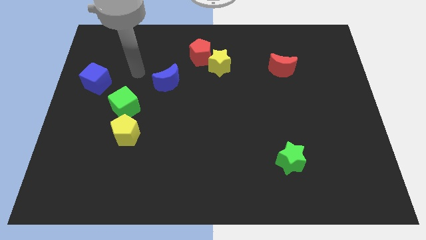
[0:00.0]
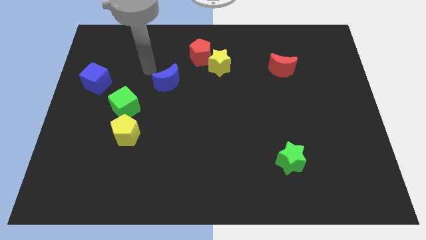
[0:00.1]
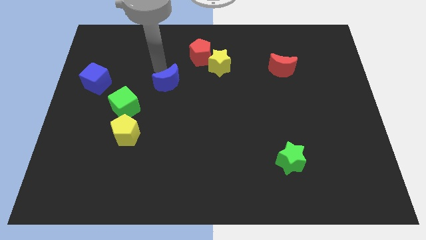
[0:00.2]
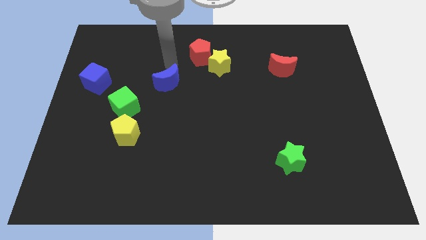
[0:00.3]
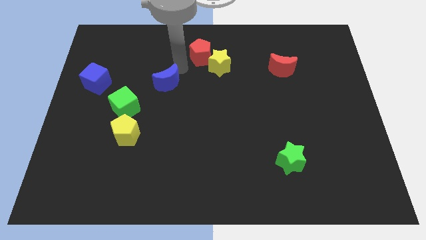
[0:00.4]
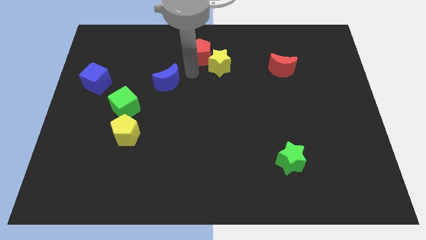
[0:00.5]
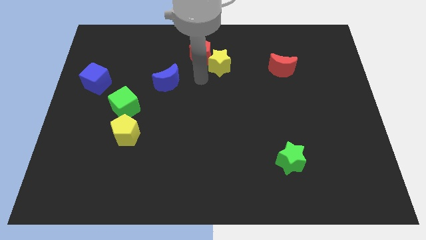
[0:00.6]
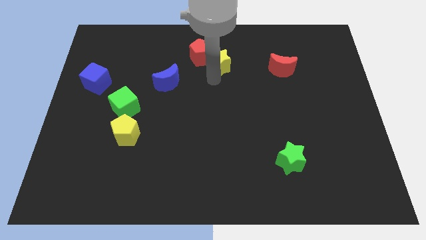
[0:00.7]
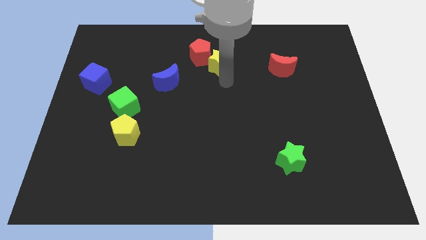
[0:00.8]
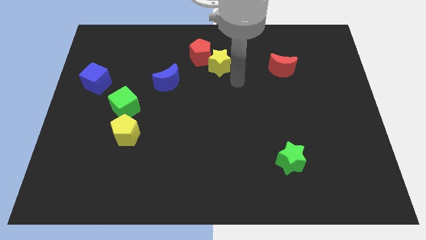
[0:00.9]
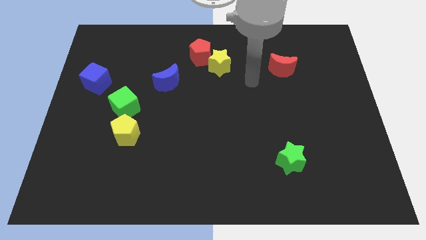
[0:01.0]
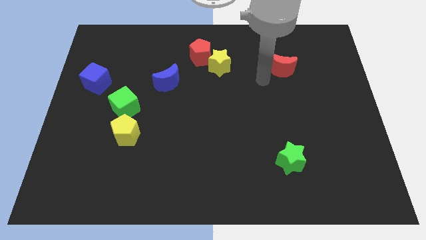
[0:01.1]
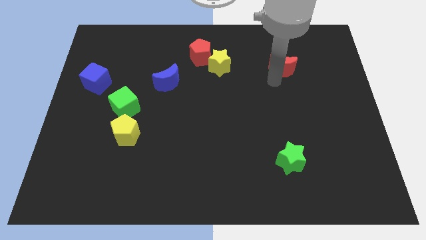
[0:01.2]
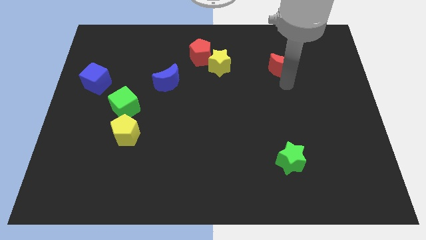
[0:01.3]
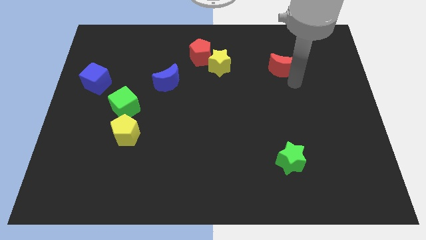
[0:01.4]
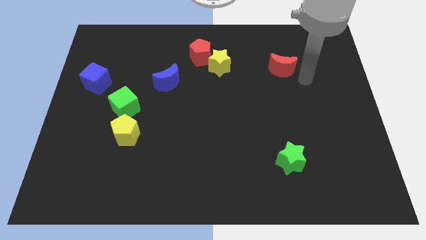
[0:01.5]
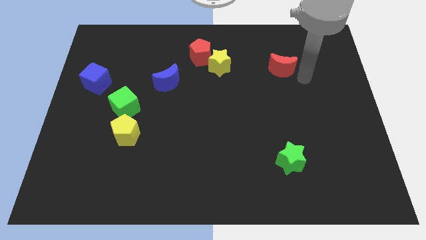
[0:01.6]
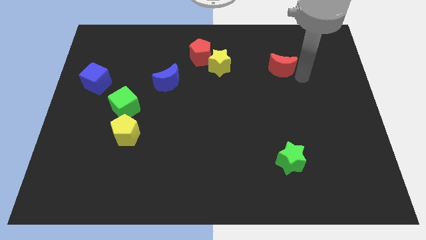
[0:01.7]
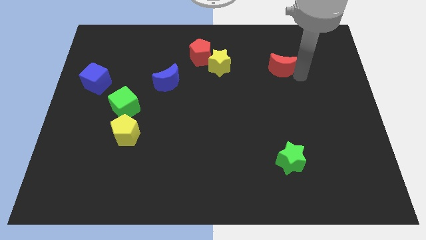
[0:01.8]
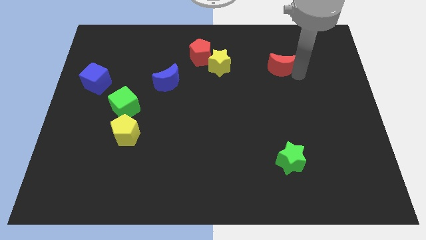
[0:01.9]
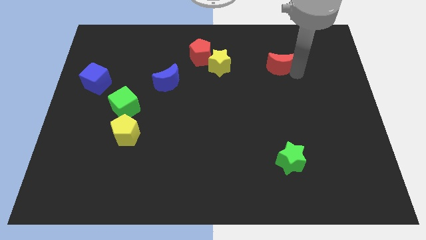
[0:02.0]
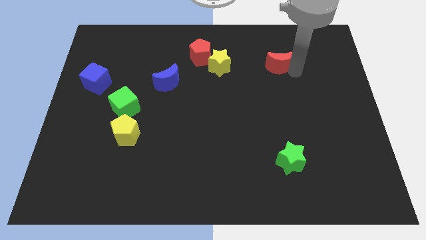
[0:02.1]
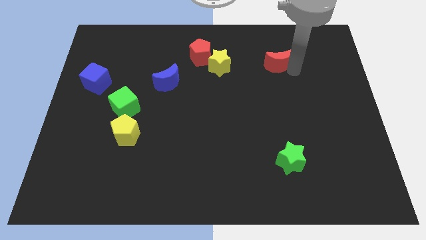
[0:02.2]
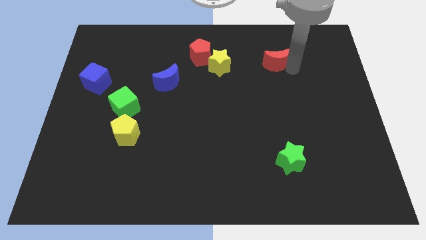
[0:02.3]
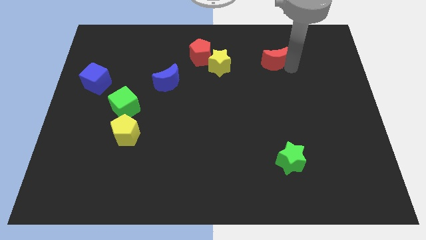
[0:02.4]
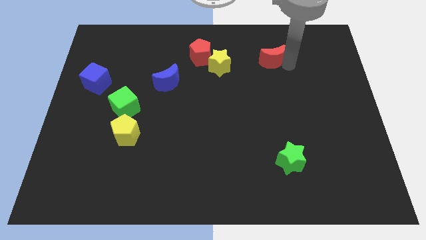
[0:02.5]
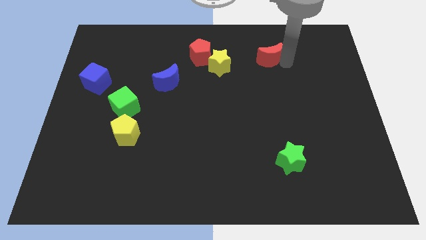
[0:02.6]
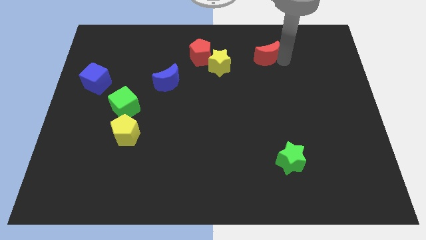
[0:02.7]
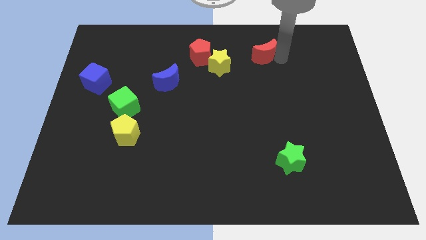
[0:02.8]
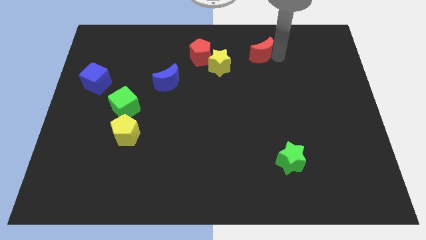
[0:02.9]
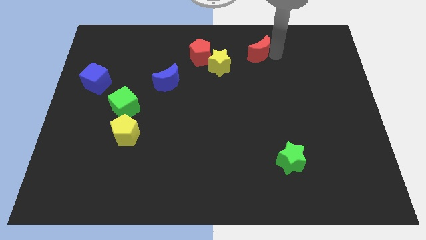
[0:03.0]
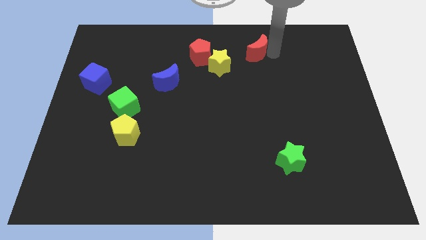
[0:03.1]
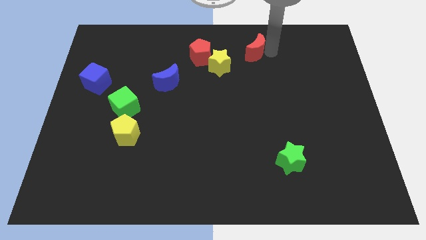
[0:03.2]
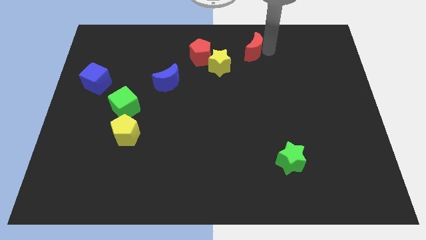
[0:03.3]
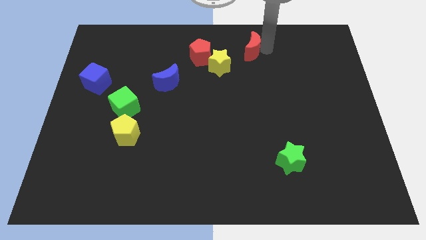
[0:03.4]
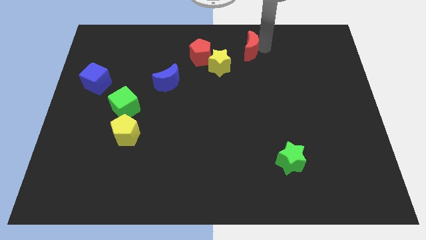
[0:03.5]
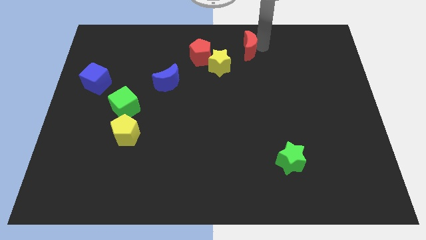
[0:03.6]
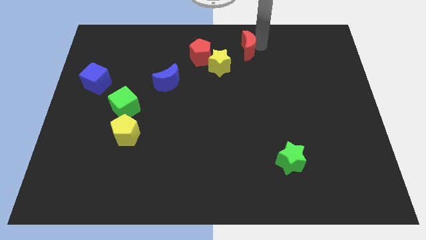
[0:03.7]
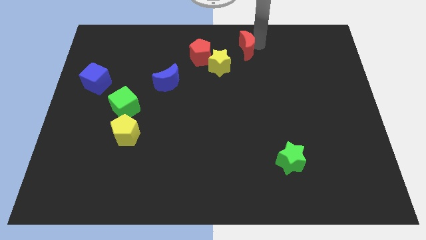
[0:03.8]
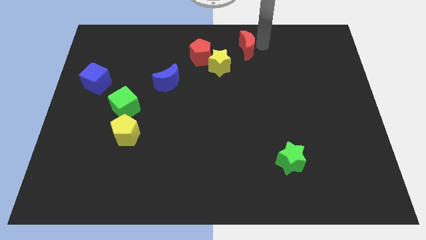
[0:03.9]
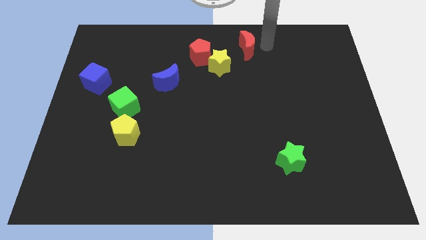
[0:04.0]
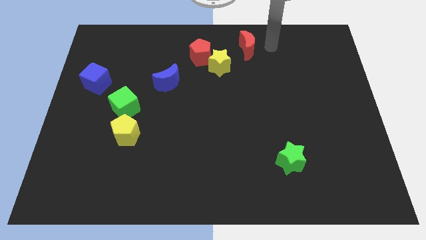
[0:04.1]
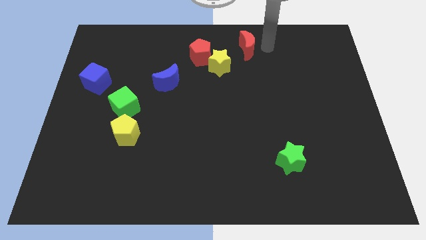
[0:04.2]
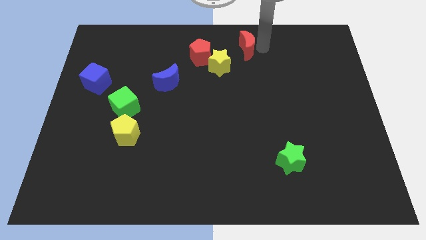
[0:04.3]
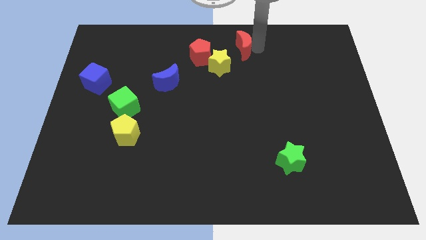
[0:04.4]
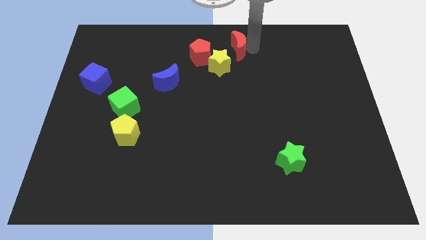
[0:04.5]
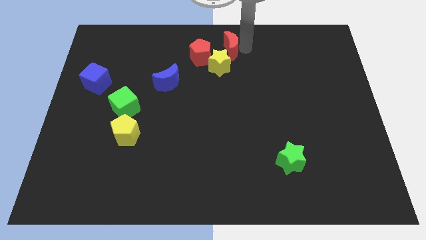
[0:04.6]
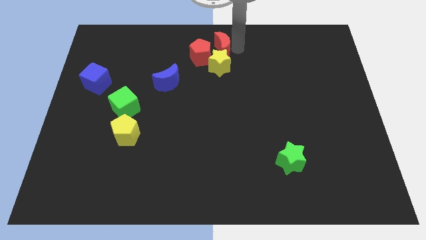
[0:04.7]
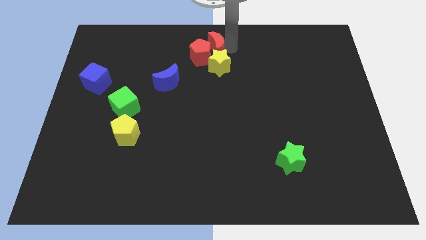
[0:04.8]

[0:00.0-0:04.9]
push the red moon to the red pentagon

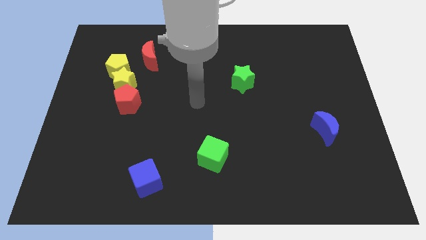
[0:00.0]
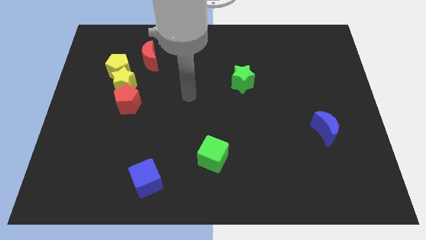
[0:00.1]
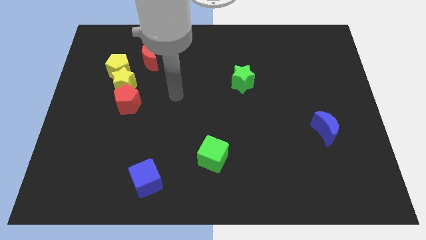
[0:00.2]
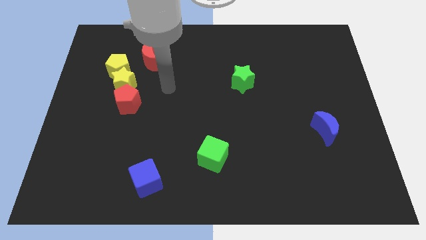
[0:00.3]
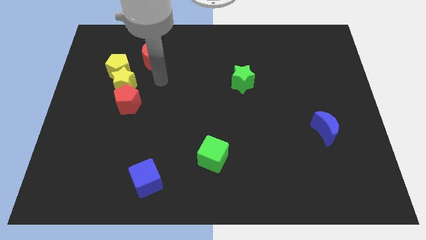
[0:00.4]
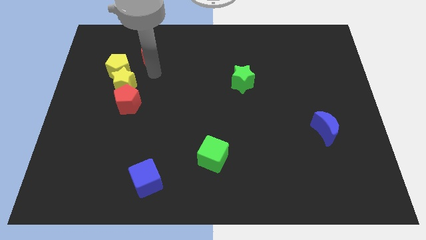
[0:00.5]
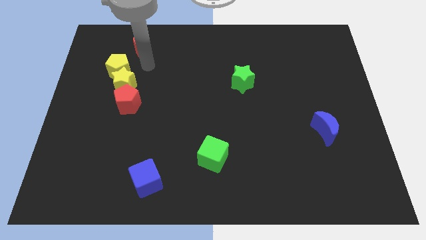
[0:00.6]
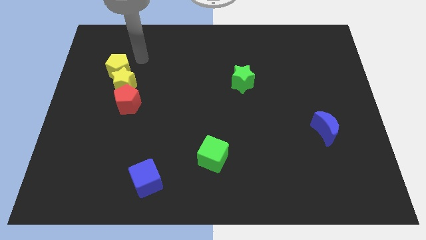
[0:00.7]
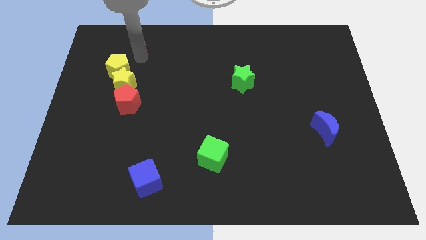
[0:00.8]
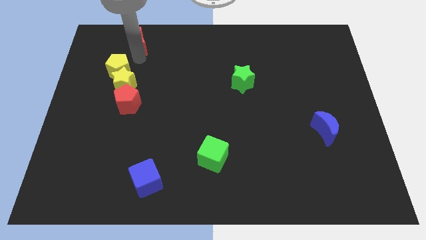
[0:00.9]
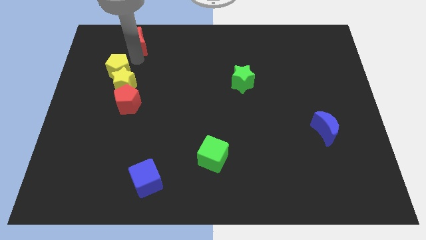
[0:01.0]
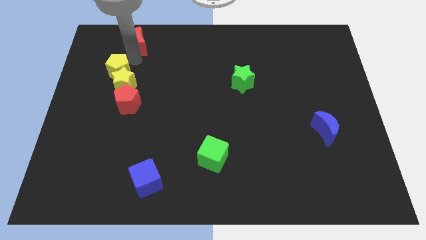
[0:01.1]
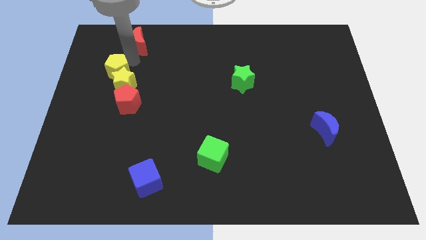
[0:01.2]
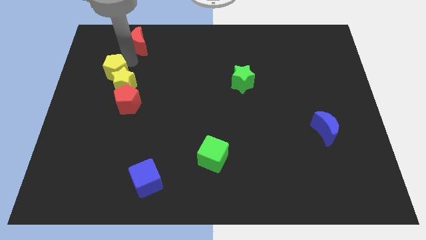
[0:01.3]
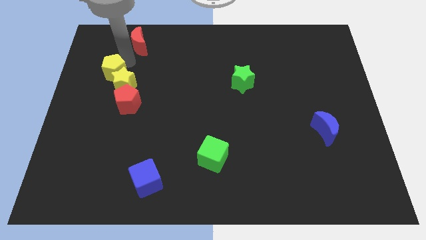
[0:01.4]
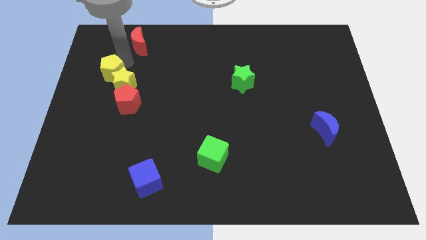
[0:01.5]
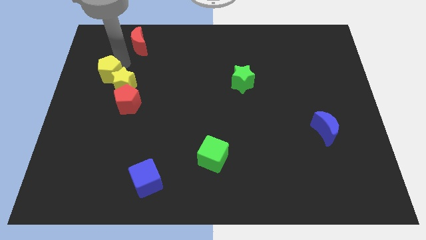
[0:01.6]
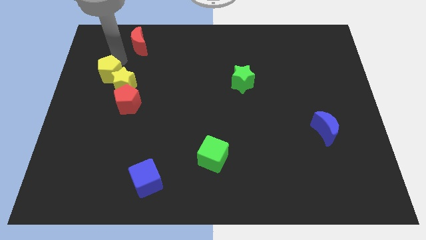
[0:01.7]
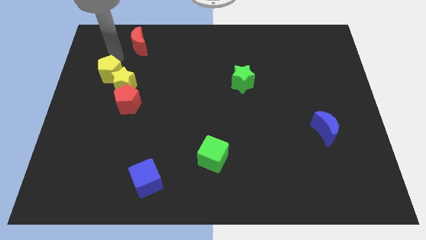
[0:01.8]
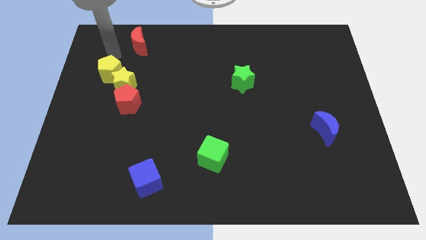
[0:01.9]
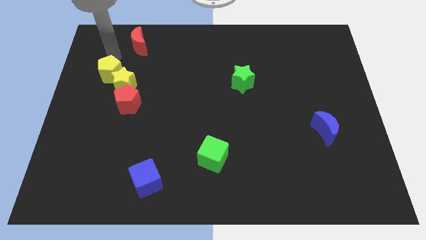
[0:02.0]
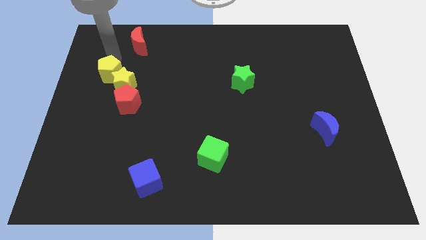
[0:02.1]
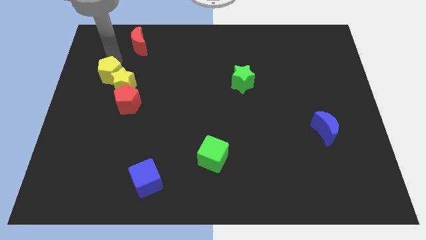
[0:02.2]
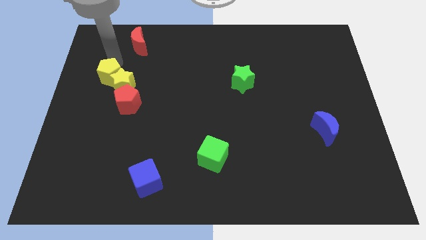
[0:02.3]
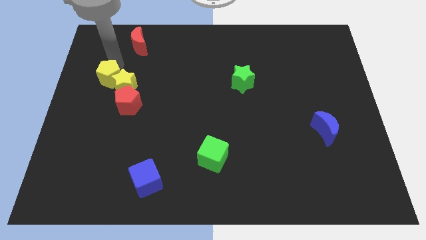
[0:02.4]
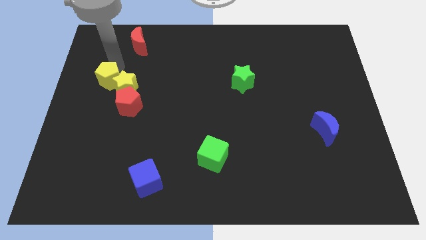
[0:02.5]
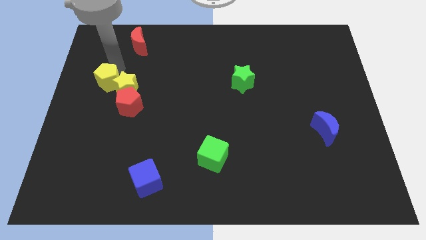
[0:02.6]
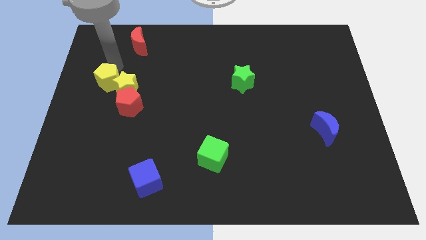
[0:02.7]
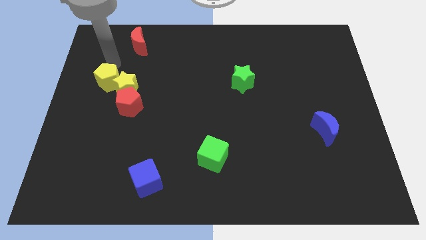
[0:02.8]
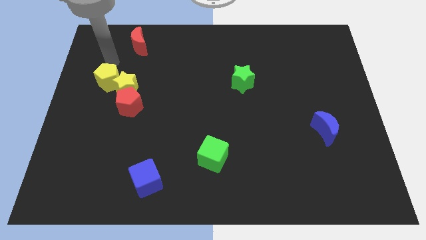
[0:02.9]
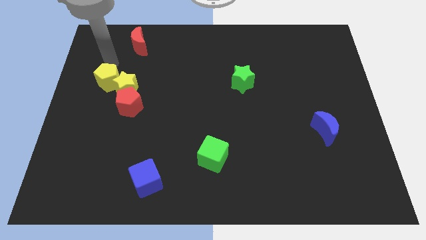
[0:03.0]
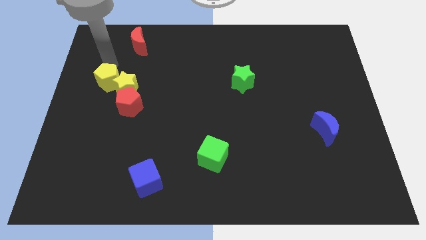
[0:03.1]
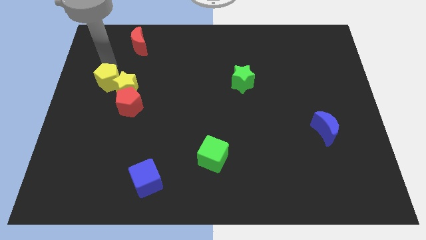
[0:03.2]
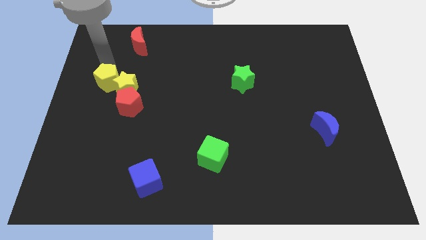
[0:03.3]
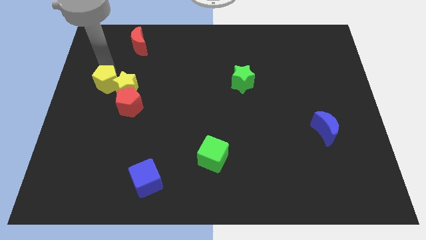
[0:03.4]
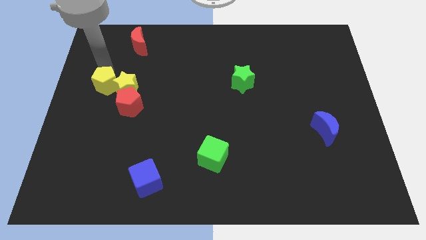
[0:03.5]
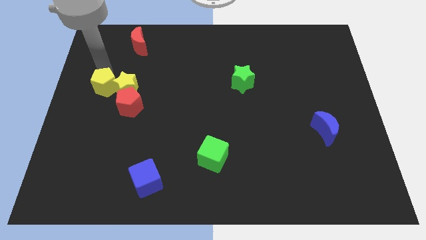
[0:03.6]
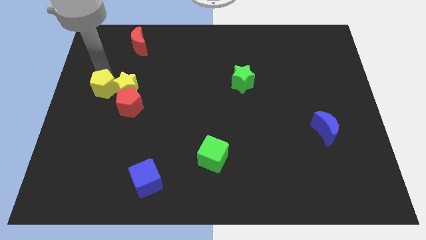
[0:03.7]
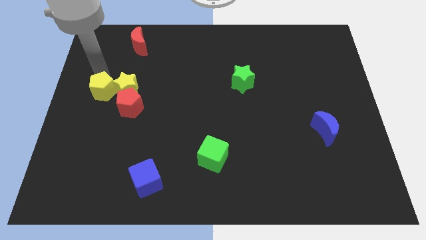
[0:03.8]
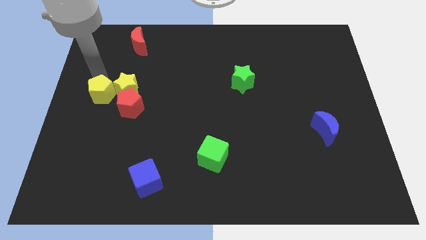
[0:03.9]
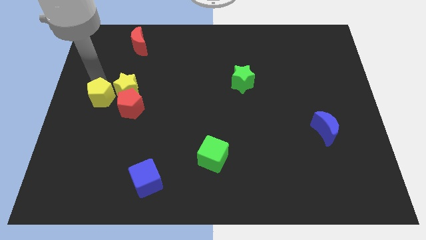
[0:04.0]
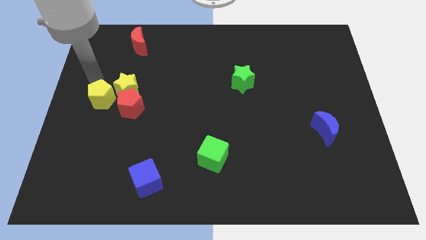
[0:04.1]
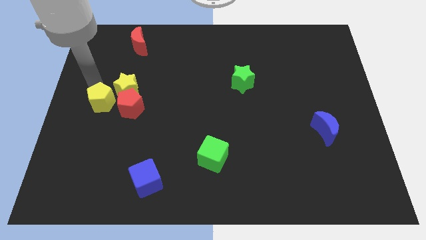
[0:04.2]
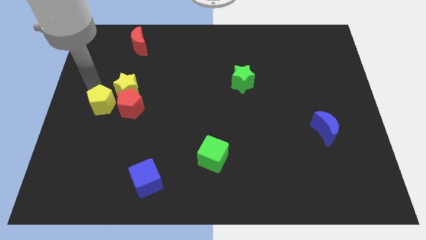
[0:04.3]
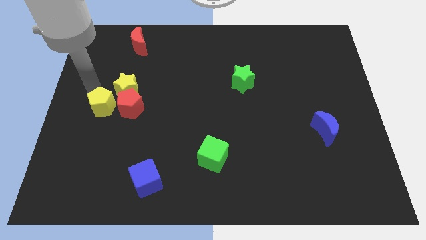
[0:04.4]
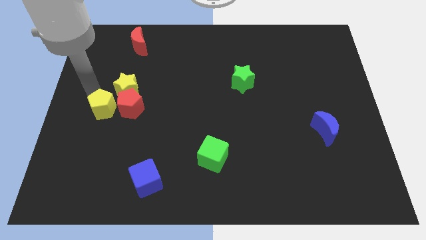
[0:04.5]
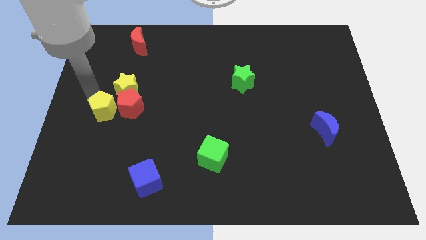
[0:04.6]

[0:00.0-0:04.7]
push the yellow pentagon close to the red pentagon
